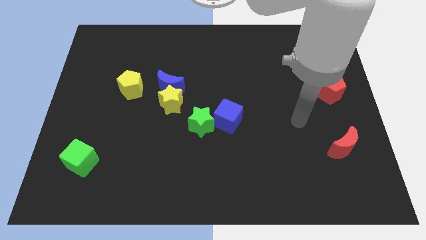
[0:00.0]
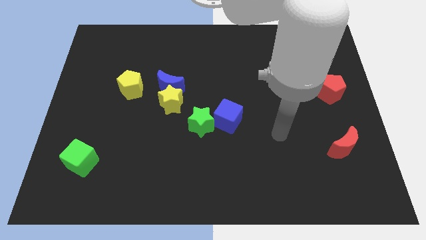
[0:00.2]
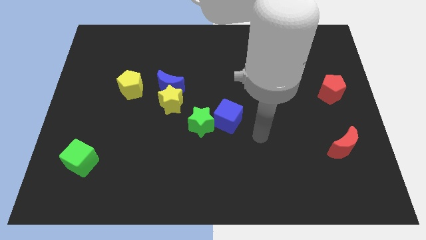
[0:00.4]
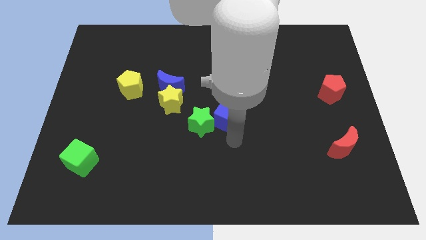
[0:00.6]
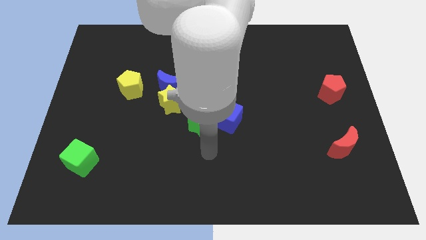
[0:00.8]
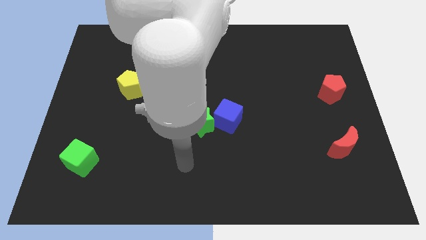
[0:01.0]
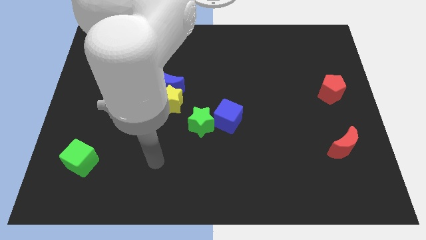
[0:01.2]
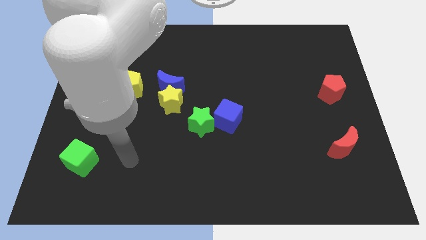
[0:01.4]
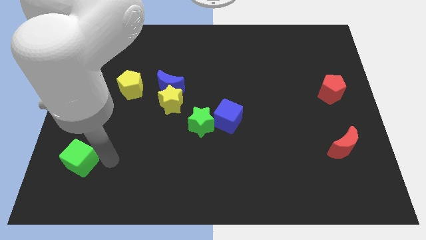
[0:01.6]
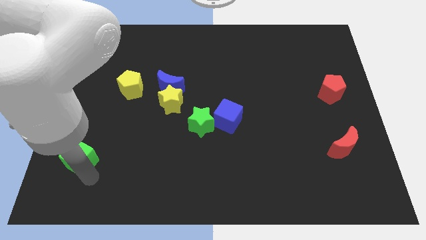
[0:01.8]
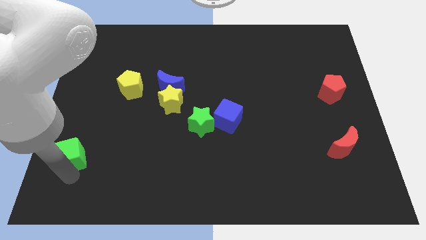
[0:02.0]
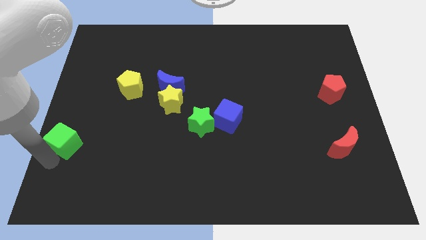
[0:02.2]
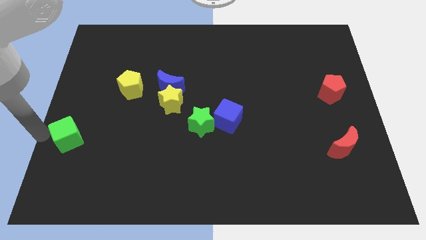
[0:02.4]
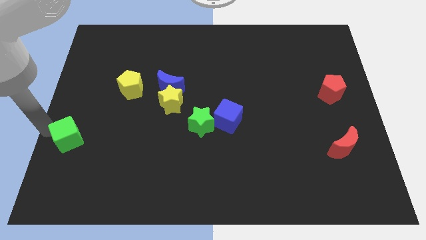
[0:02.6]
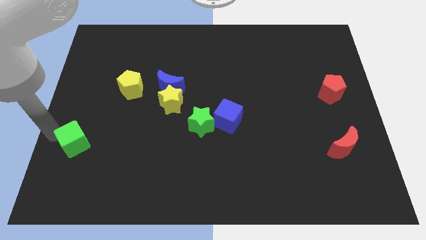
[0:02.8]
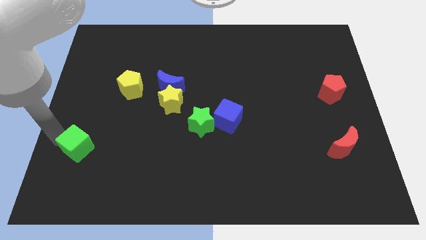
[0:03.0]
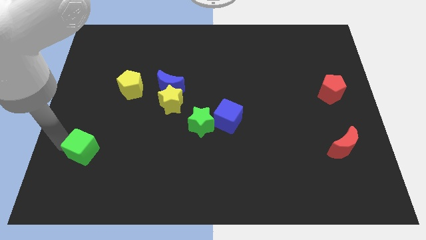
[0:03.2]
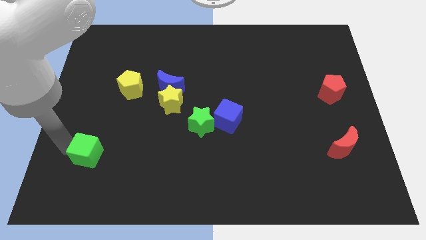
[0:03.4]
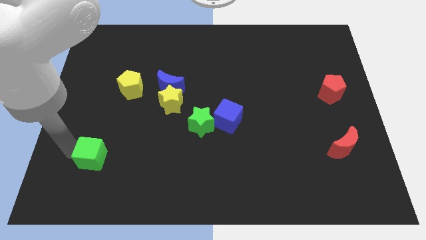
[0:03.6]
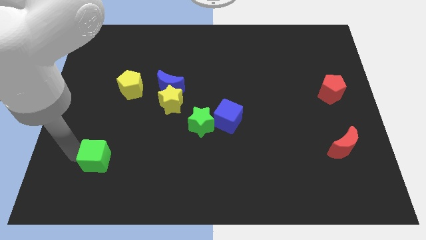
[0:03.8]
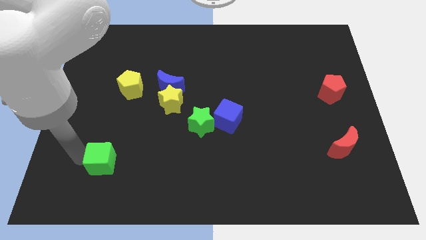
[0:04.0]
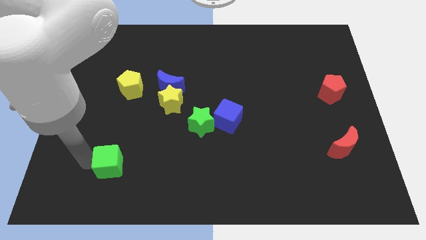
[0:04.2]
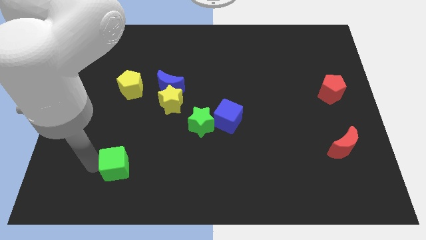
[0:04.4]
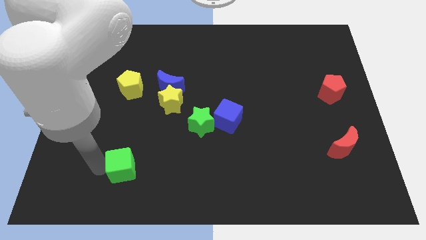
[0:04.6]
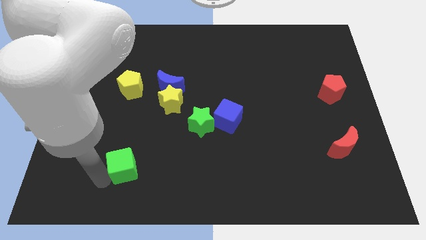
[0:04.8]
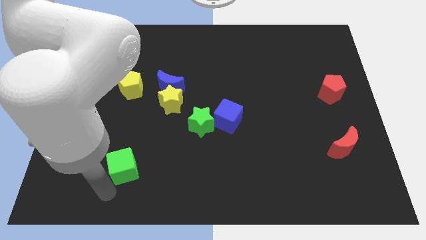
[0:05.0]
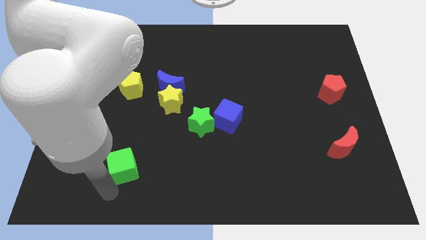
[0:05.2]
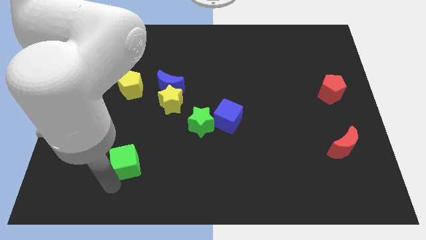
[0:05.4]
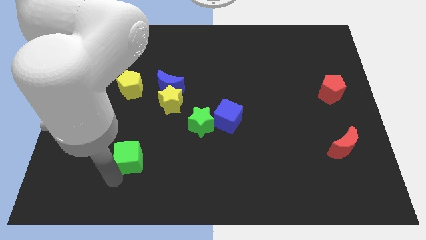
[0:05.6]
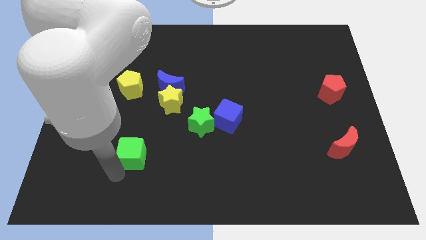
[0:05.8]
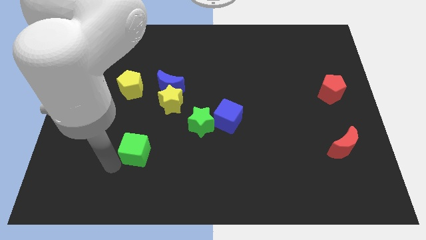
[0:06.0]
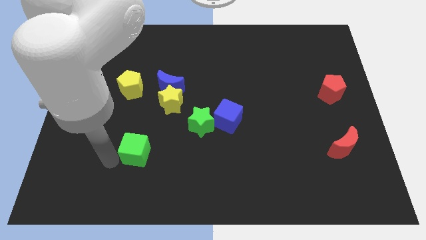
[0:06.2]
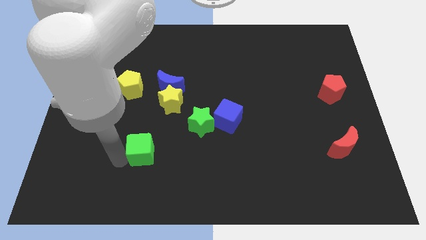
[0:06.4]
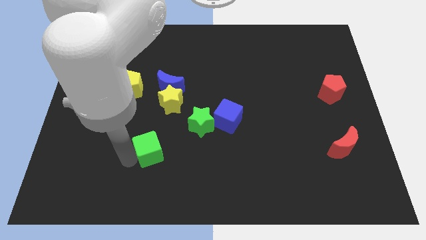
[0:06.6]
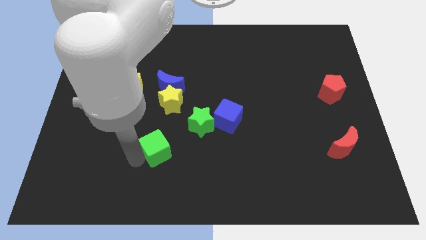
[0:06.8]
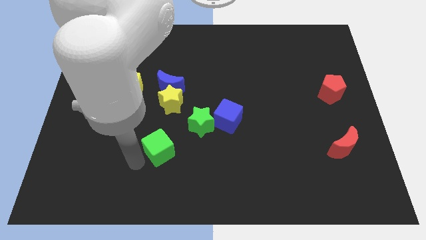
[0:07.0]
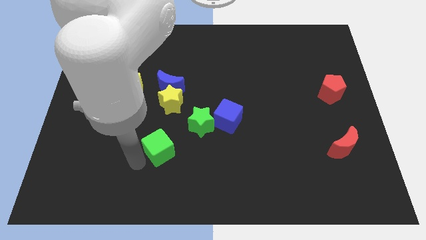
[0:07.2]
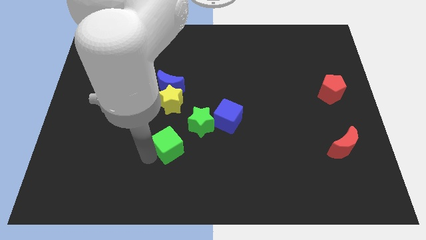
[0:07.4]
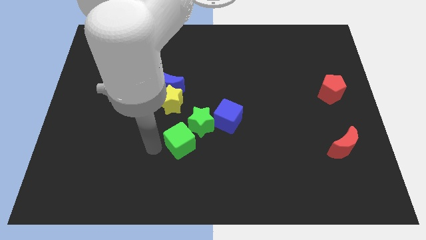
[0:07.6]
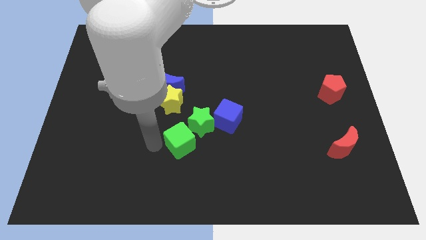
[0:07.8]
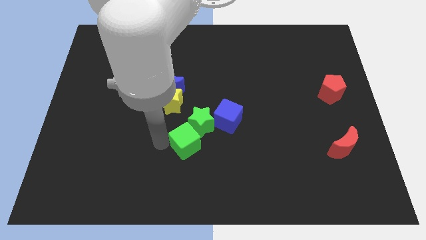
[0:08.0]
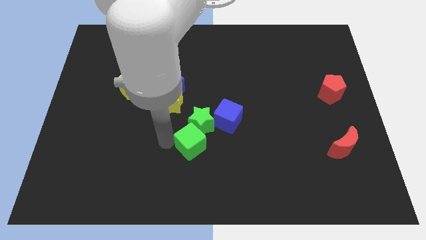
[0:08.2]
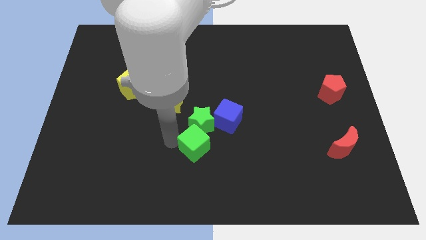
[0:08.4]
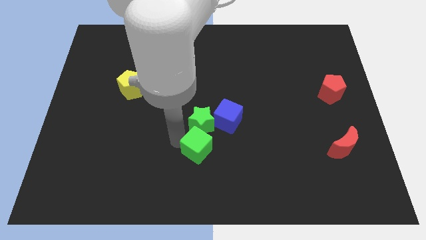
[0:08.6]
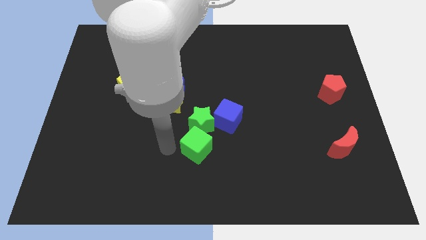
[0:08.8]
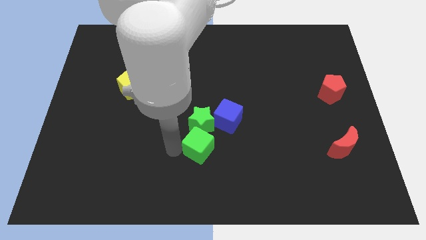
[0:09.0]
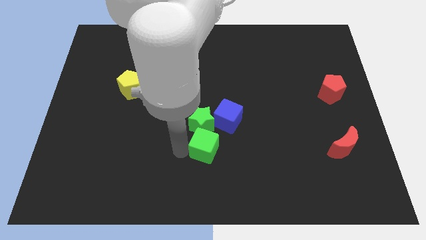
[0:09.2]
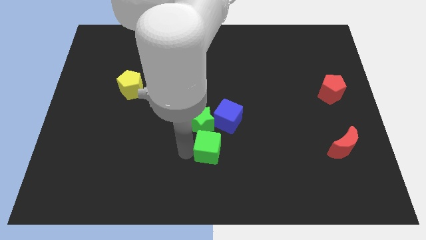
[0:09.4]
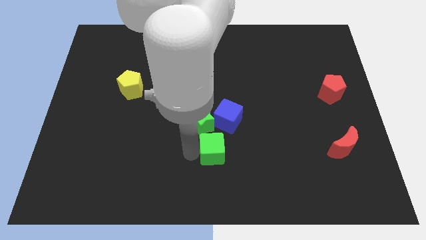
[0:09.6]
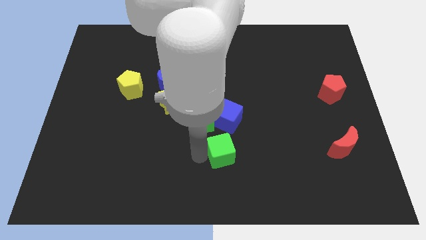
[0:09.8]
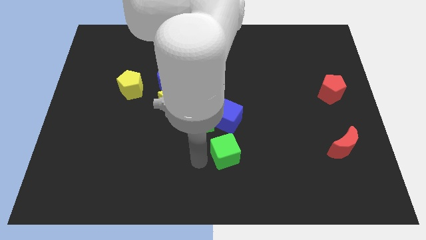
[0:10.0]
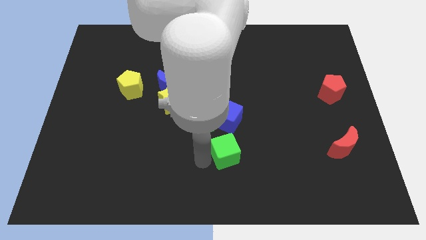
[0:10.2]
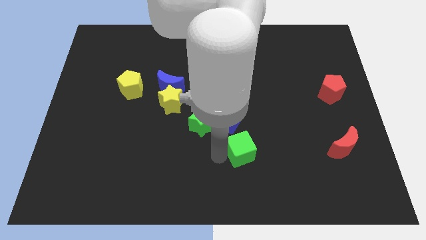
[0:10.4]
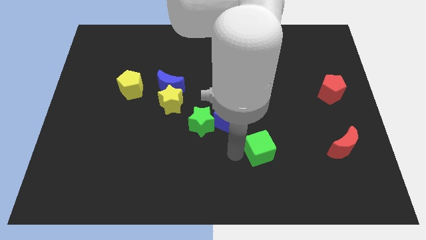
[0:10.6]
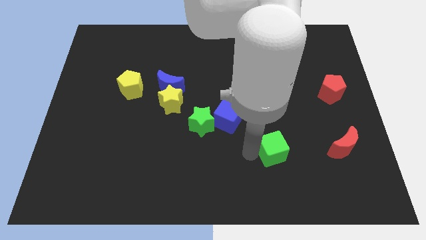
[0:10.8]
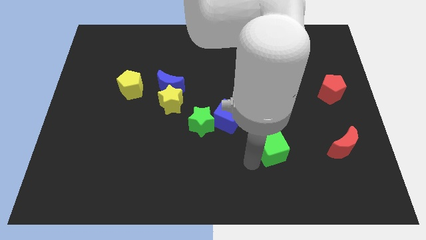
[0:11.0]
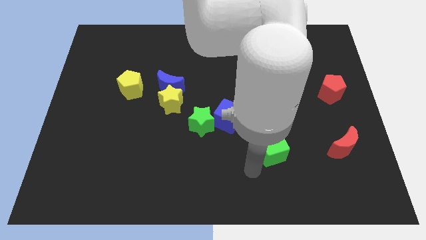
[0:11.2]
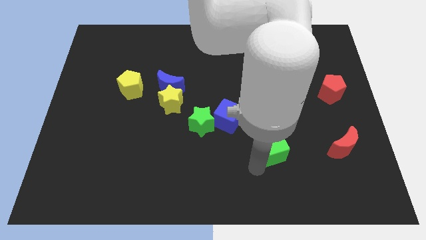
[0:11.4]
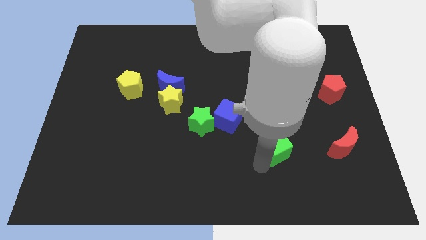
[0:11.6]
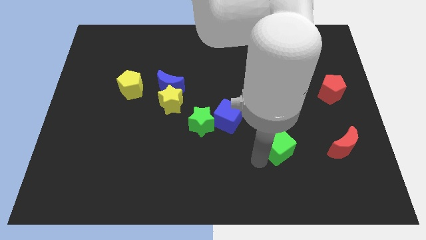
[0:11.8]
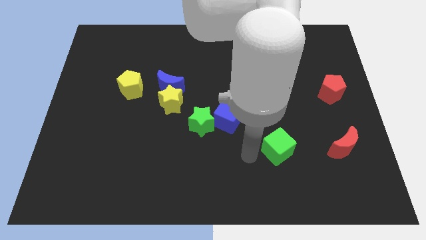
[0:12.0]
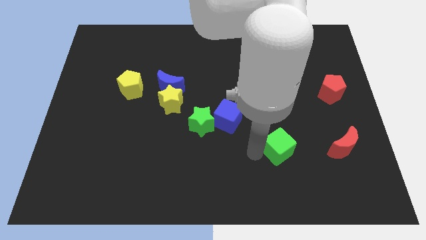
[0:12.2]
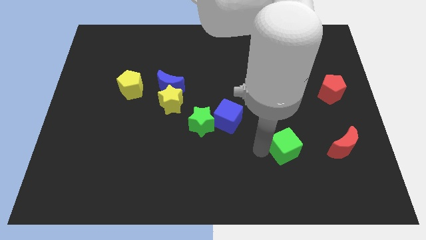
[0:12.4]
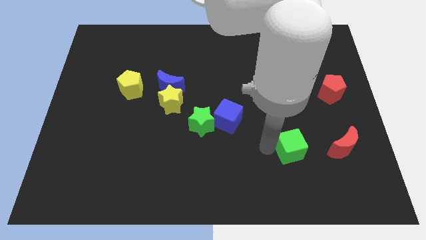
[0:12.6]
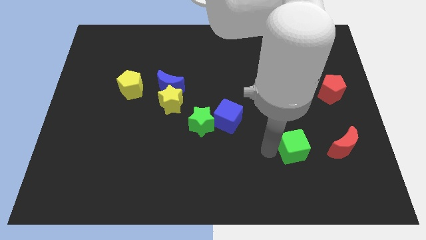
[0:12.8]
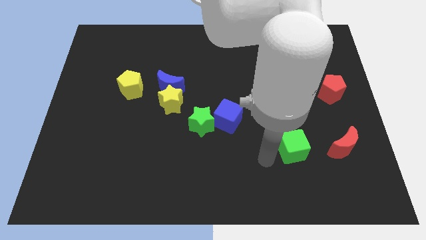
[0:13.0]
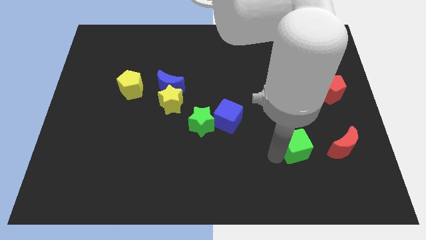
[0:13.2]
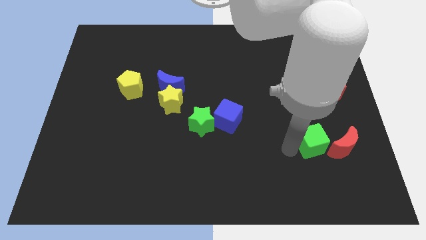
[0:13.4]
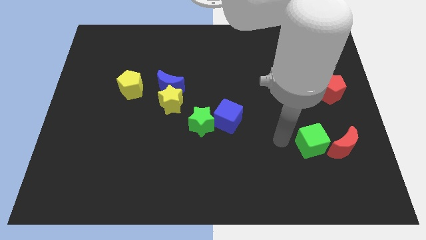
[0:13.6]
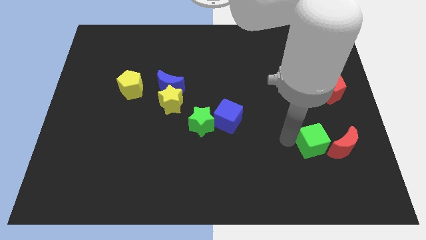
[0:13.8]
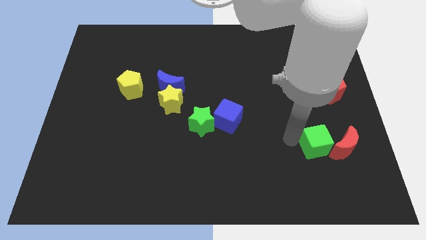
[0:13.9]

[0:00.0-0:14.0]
move the green cube towards the red moon

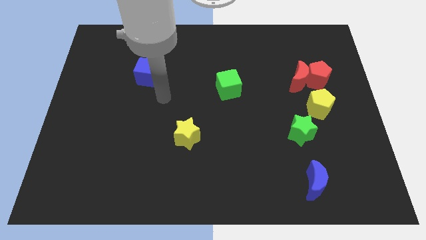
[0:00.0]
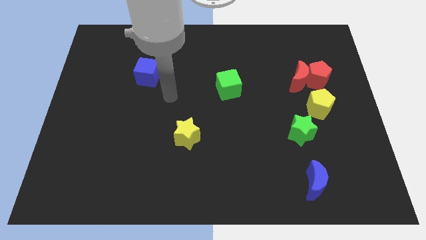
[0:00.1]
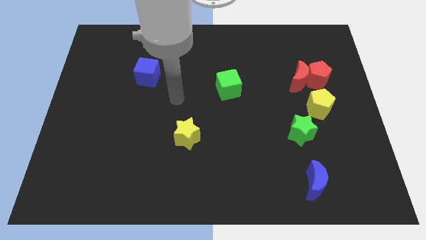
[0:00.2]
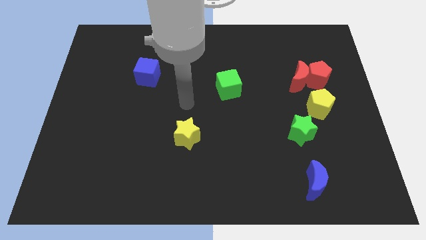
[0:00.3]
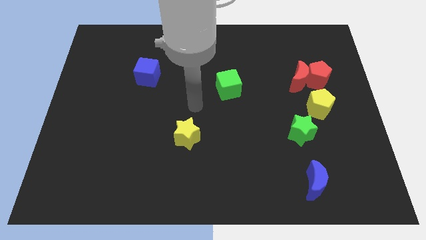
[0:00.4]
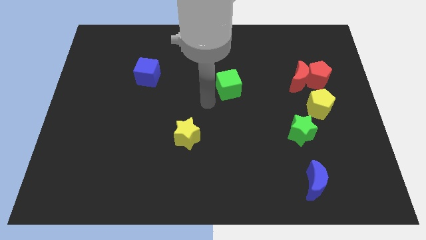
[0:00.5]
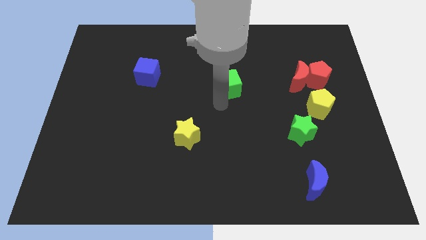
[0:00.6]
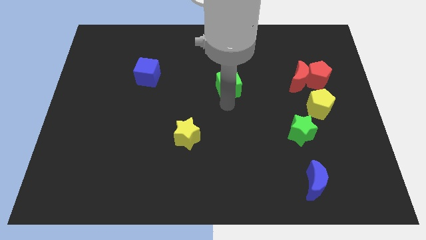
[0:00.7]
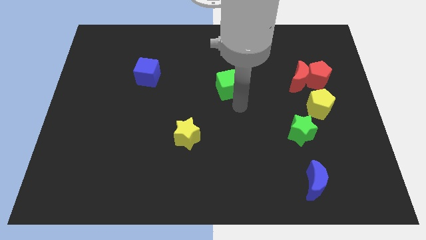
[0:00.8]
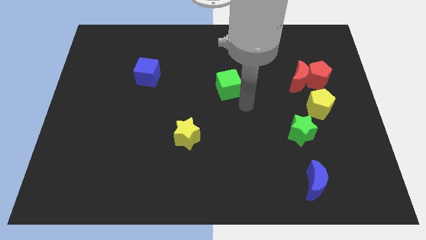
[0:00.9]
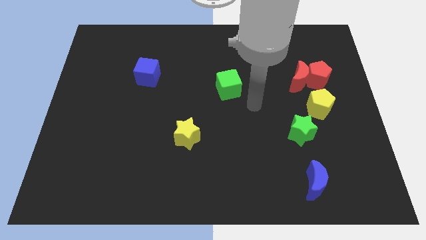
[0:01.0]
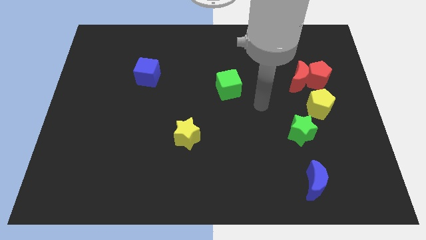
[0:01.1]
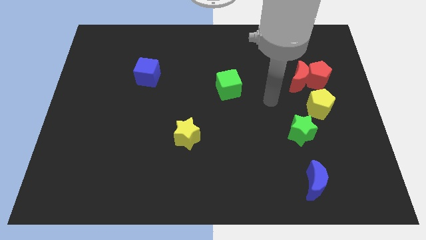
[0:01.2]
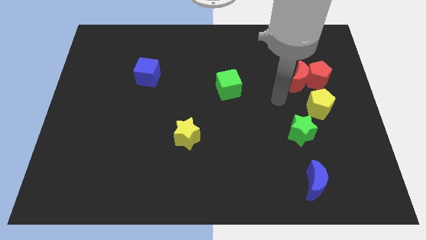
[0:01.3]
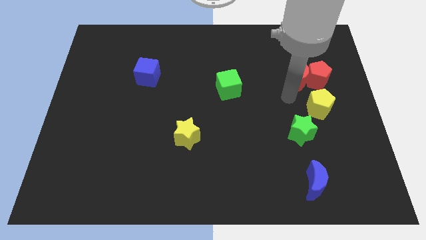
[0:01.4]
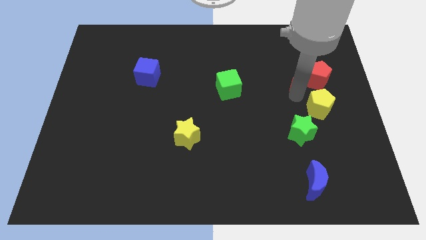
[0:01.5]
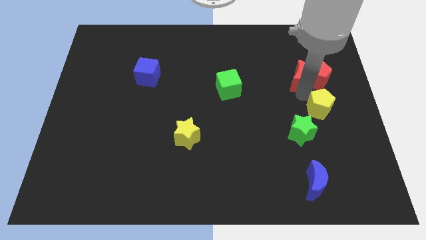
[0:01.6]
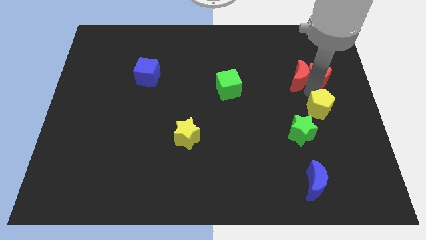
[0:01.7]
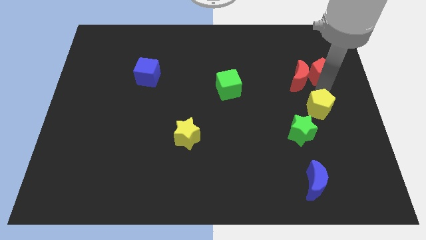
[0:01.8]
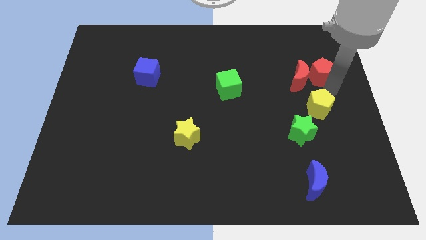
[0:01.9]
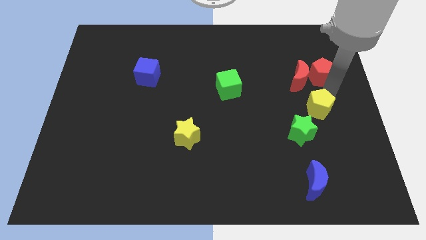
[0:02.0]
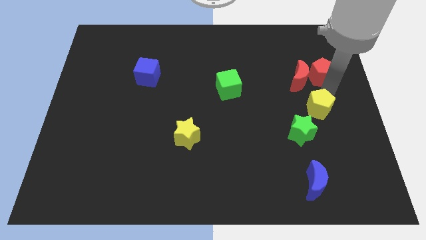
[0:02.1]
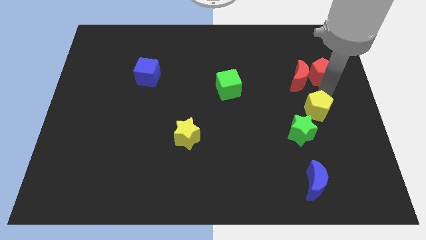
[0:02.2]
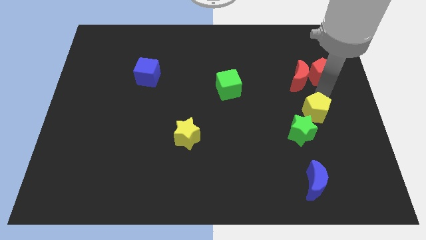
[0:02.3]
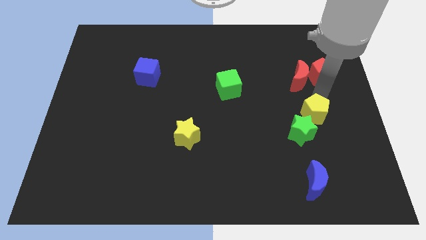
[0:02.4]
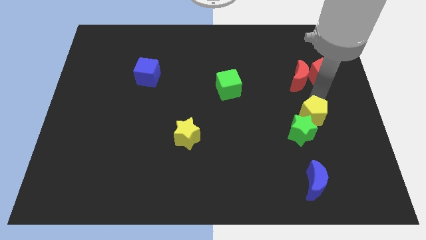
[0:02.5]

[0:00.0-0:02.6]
slide the yellow pentagon to the green star
